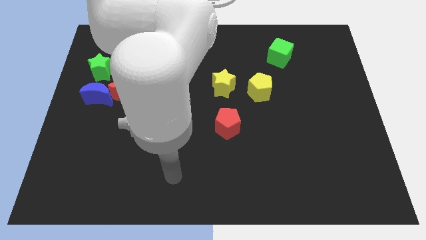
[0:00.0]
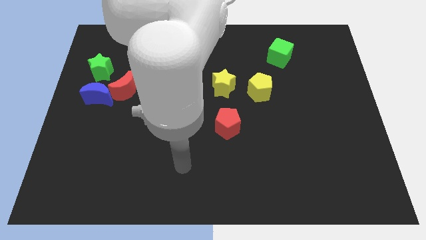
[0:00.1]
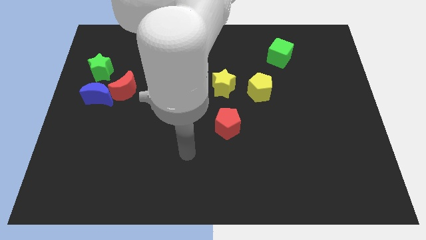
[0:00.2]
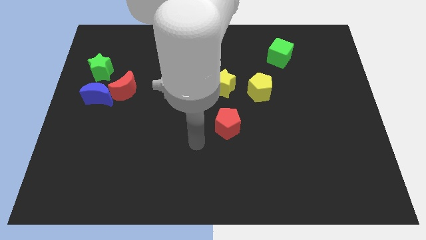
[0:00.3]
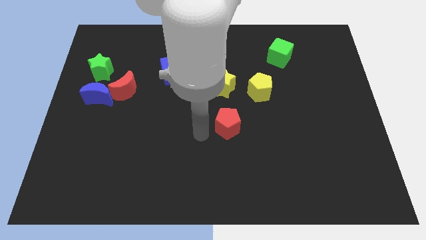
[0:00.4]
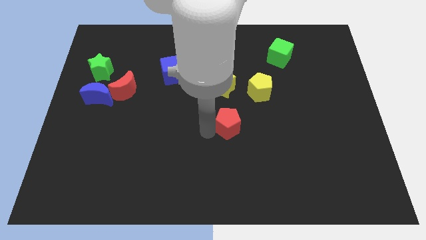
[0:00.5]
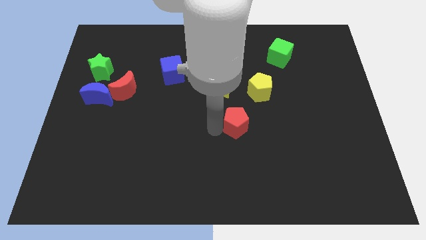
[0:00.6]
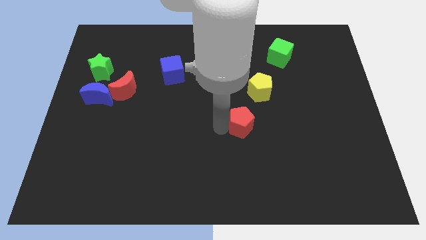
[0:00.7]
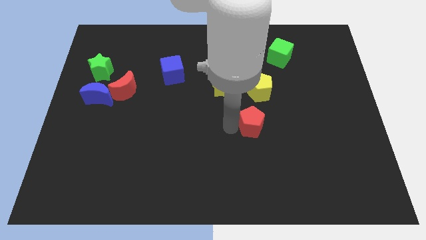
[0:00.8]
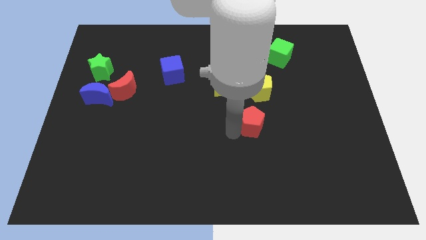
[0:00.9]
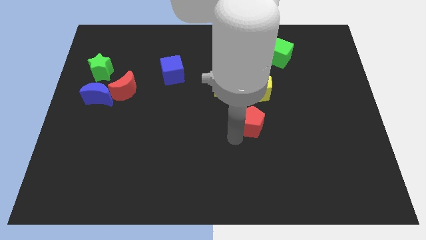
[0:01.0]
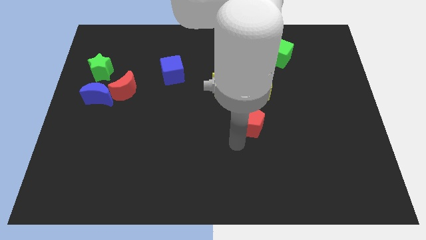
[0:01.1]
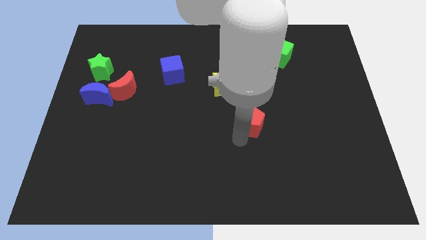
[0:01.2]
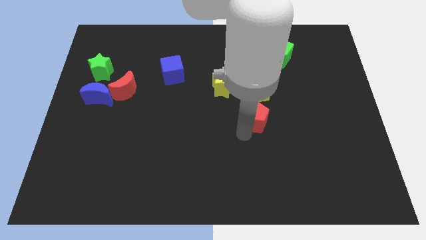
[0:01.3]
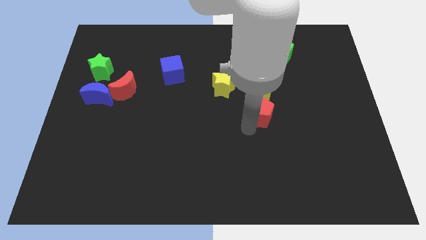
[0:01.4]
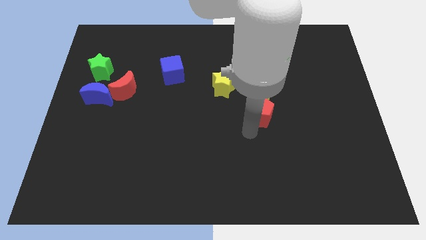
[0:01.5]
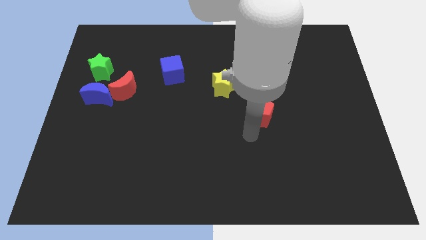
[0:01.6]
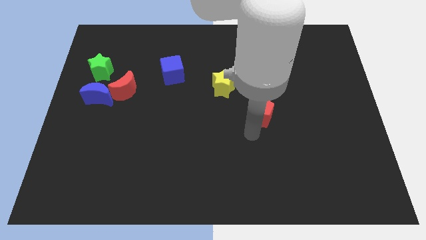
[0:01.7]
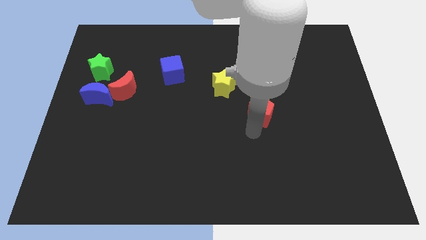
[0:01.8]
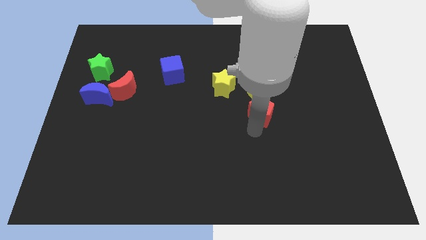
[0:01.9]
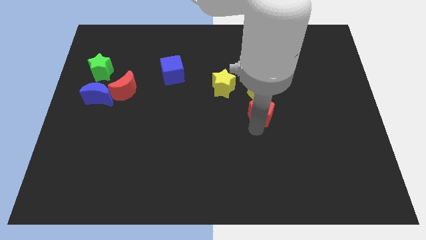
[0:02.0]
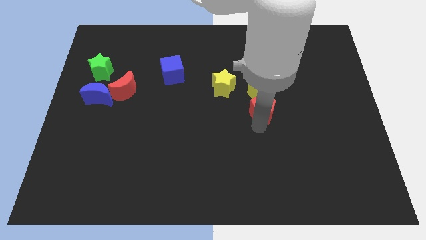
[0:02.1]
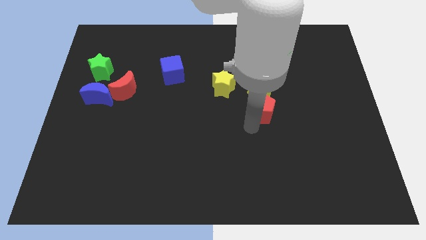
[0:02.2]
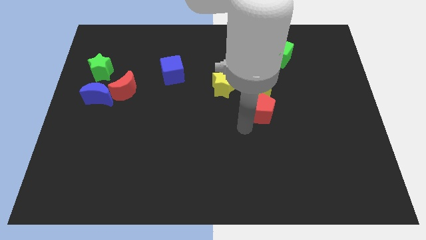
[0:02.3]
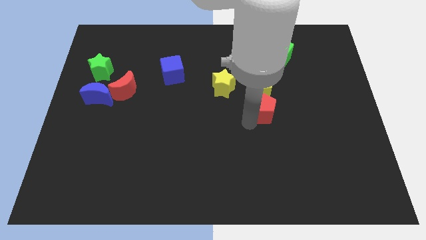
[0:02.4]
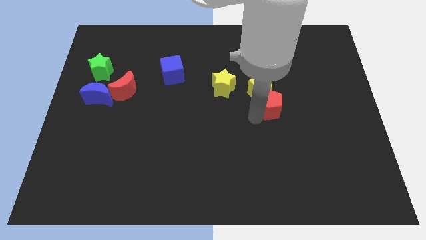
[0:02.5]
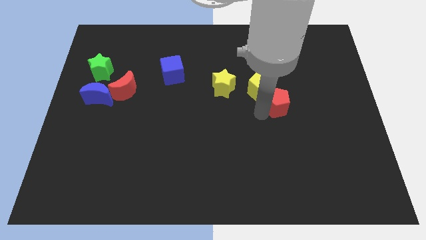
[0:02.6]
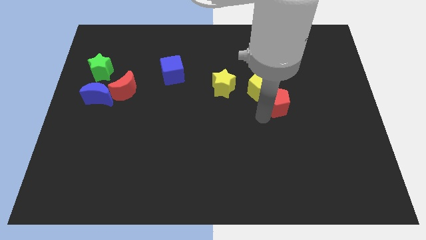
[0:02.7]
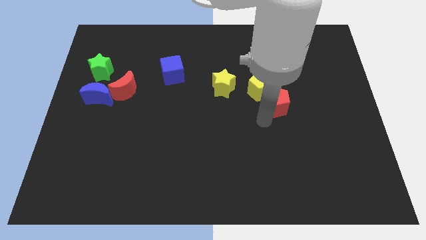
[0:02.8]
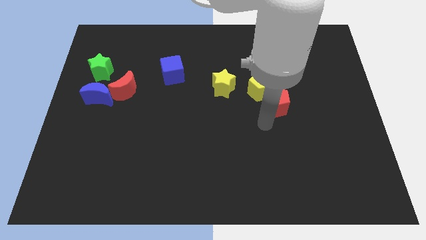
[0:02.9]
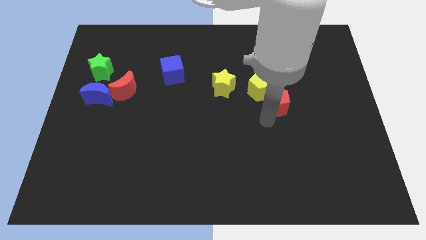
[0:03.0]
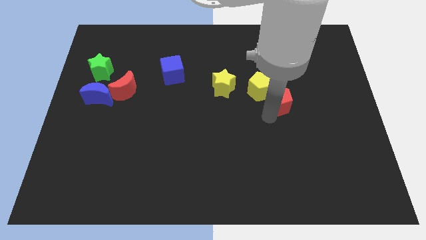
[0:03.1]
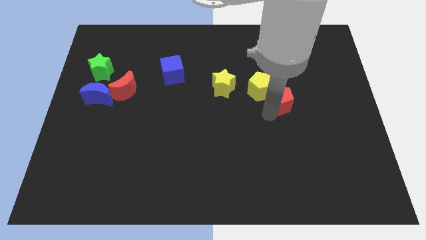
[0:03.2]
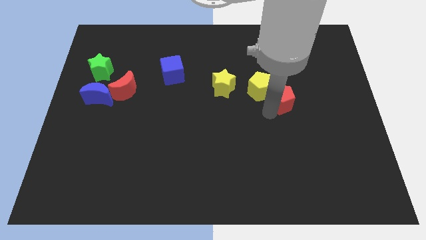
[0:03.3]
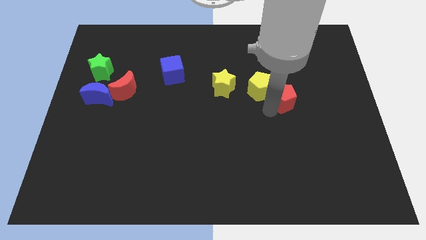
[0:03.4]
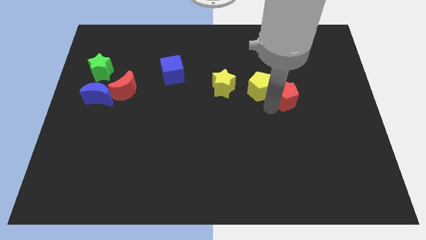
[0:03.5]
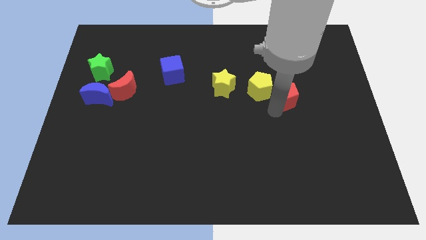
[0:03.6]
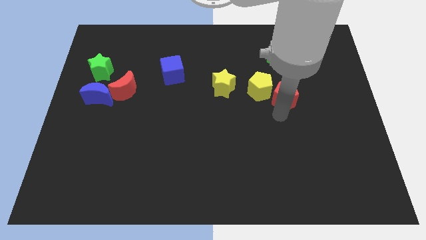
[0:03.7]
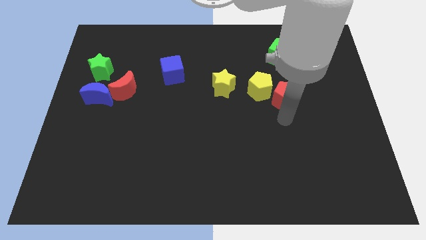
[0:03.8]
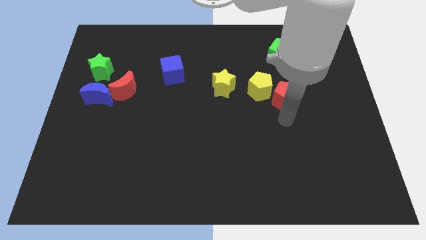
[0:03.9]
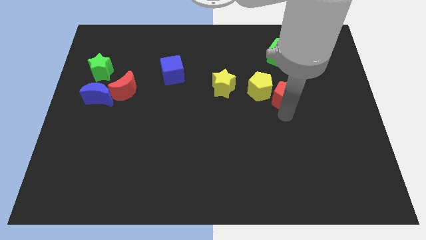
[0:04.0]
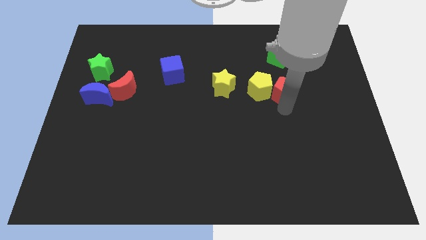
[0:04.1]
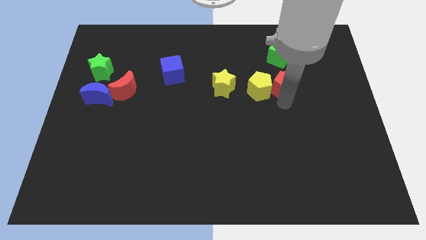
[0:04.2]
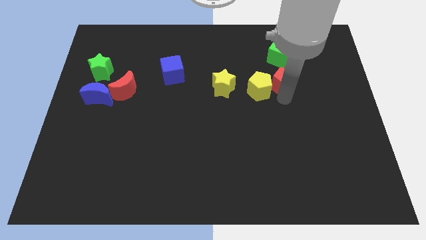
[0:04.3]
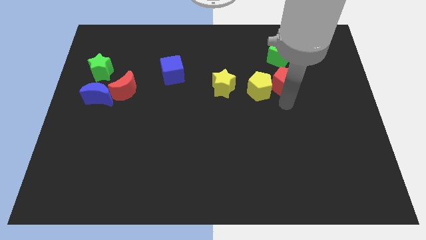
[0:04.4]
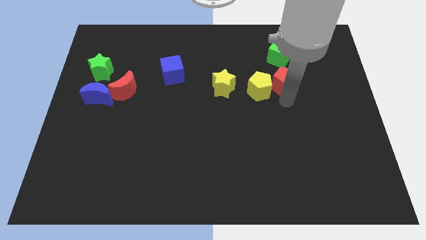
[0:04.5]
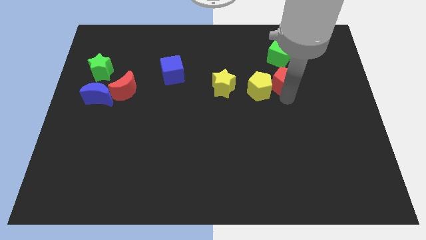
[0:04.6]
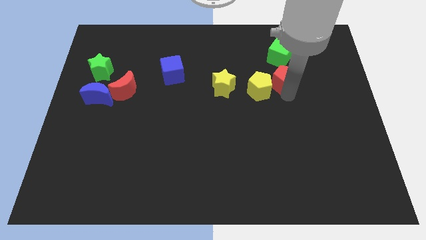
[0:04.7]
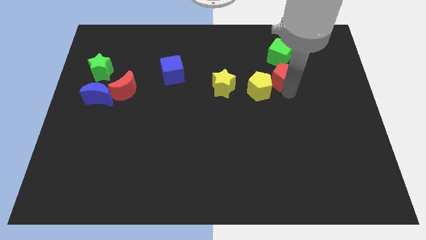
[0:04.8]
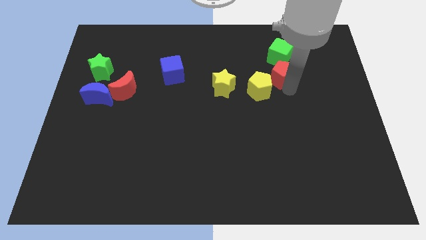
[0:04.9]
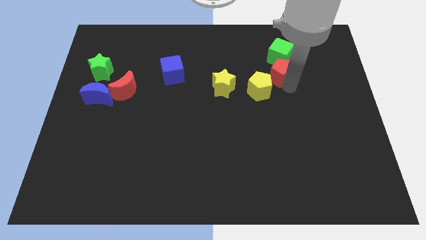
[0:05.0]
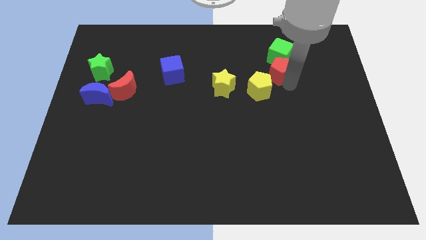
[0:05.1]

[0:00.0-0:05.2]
slide the red pentagon next to the green cube

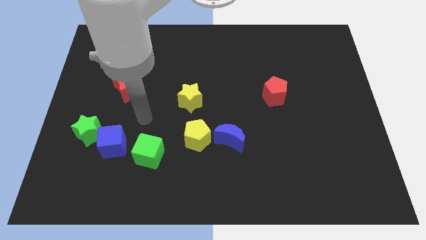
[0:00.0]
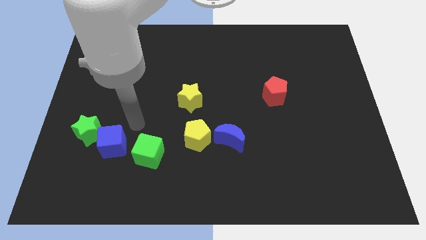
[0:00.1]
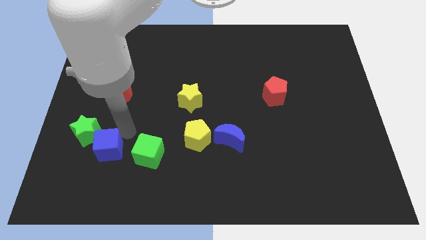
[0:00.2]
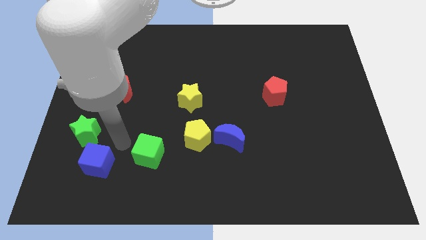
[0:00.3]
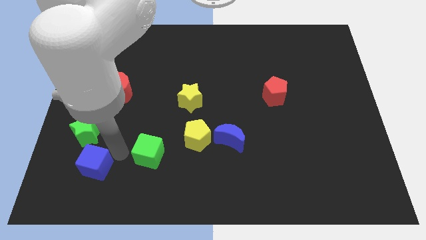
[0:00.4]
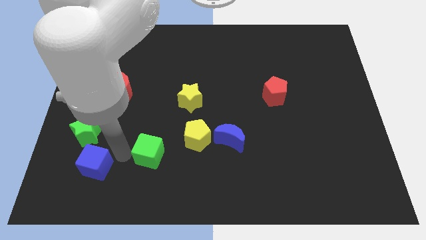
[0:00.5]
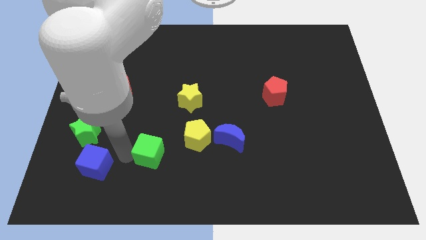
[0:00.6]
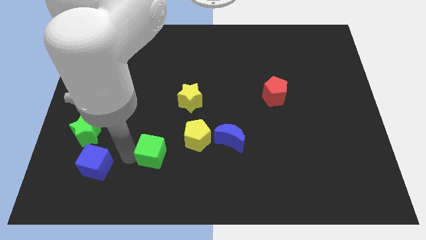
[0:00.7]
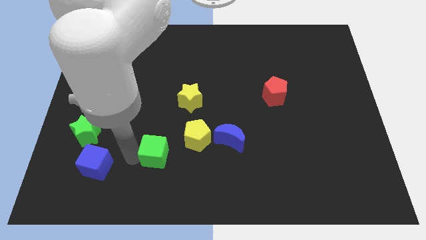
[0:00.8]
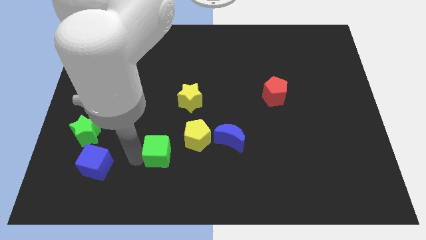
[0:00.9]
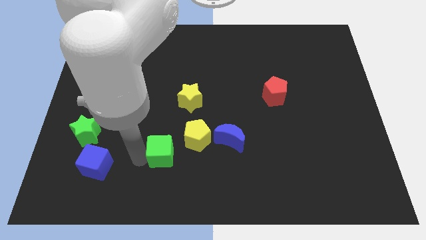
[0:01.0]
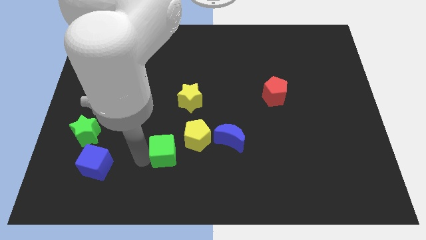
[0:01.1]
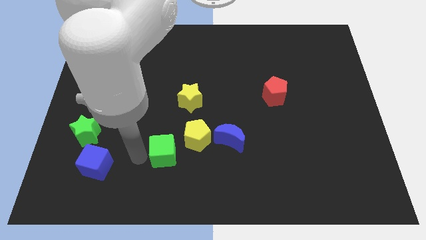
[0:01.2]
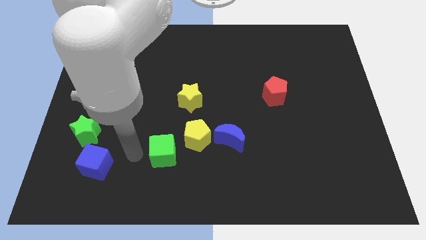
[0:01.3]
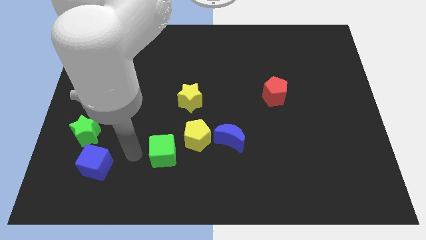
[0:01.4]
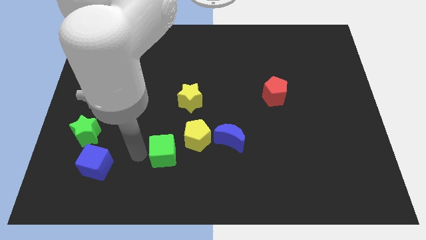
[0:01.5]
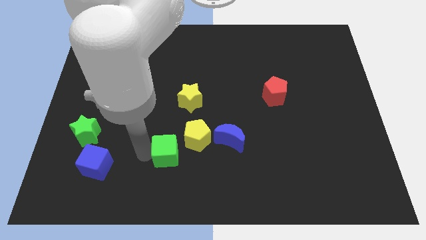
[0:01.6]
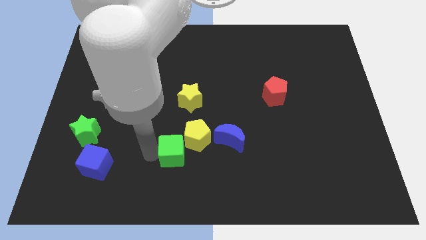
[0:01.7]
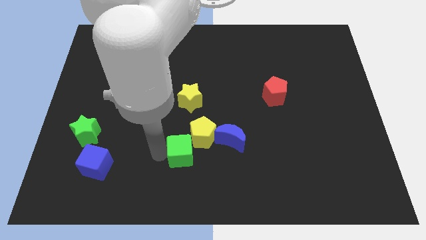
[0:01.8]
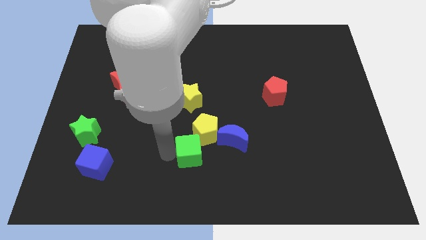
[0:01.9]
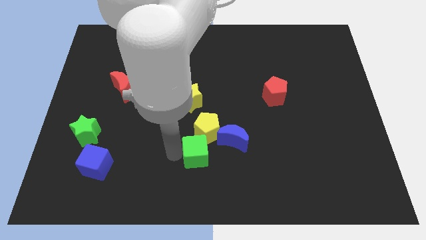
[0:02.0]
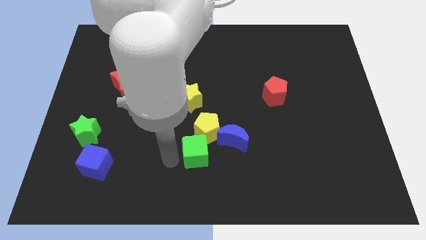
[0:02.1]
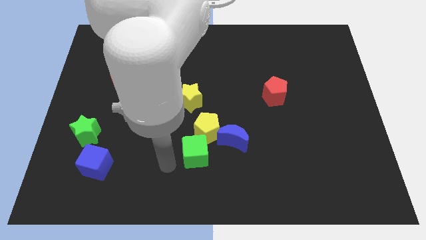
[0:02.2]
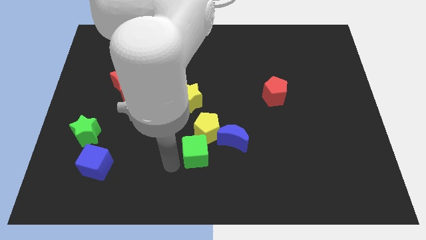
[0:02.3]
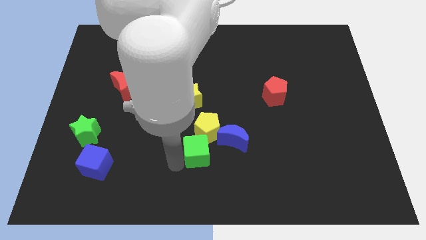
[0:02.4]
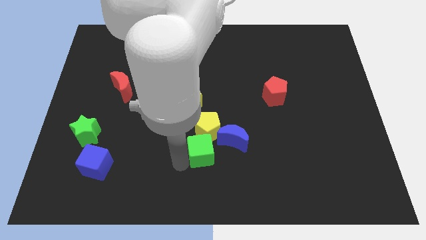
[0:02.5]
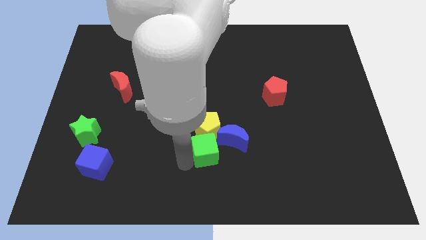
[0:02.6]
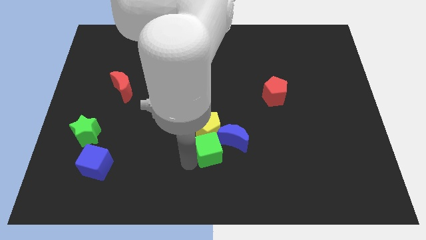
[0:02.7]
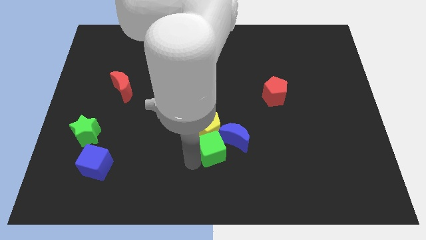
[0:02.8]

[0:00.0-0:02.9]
push the green cube towards the blue moon
